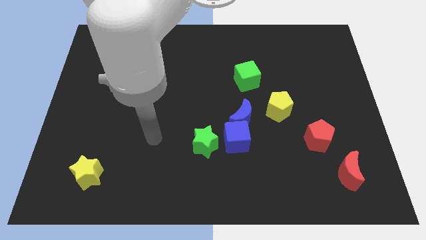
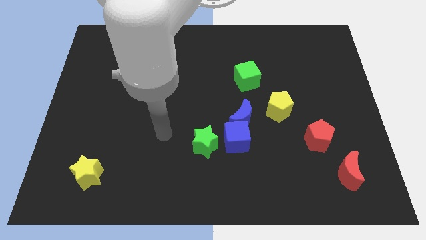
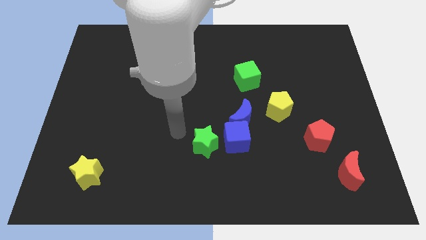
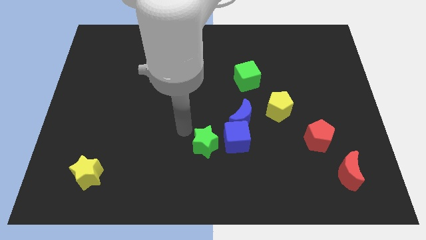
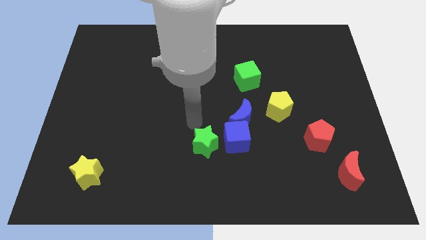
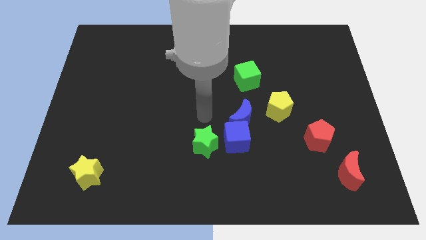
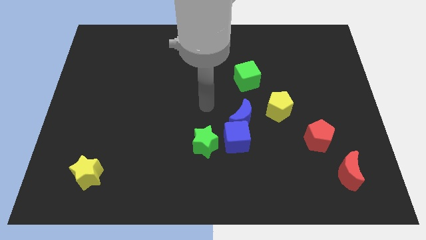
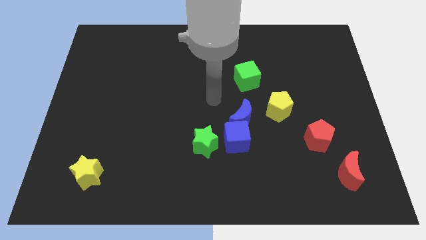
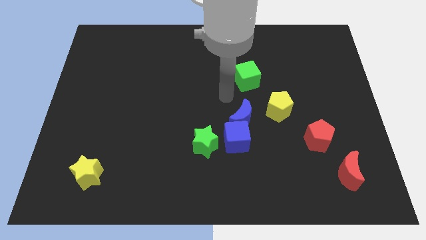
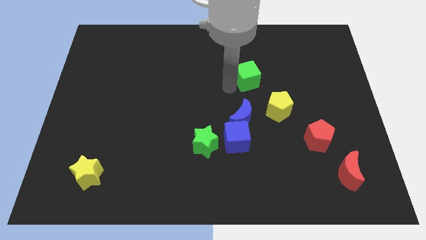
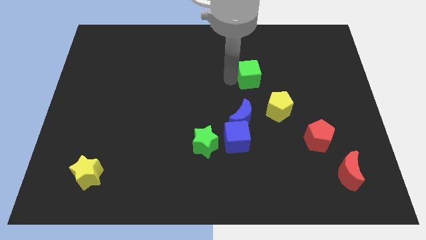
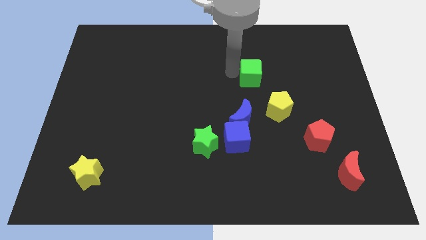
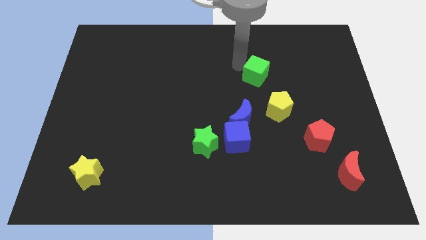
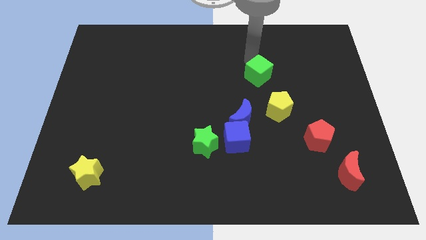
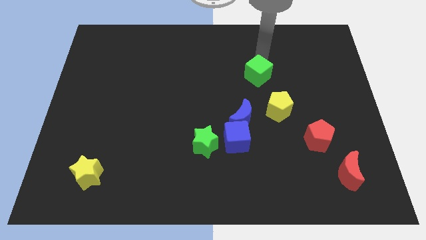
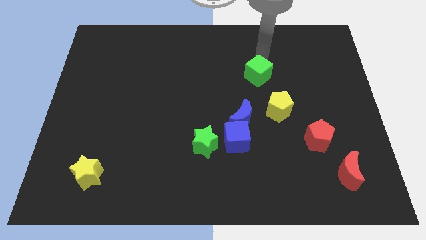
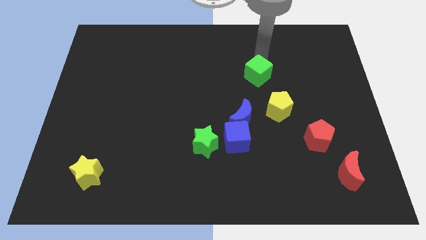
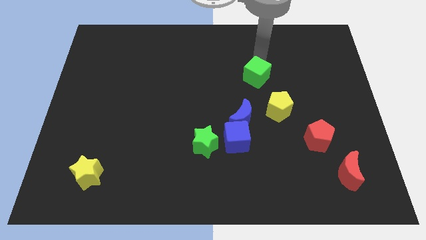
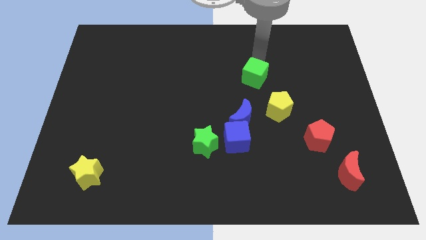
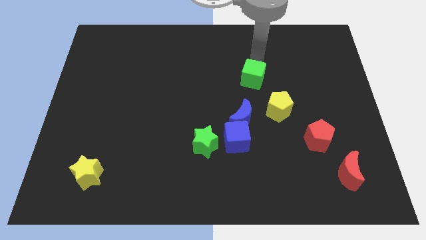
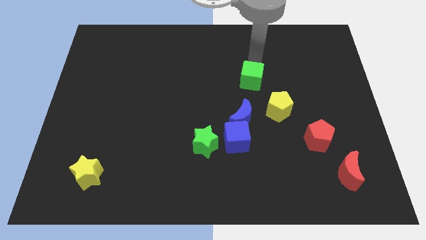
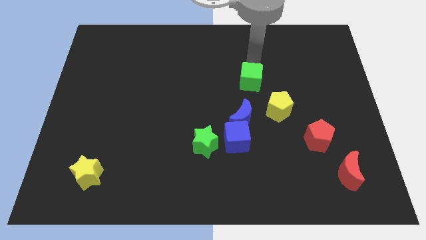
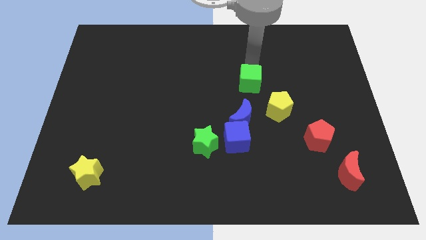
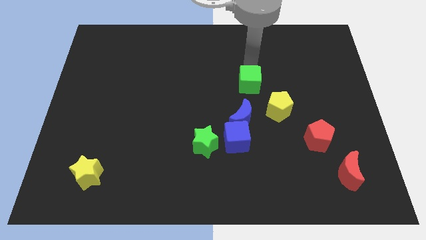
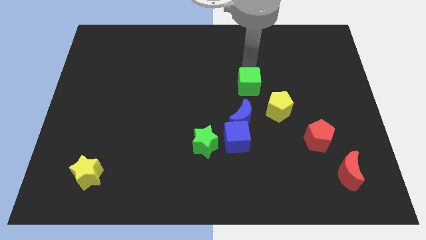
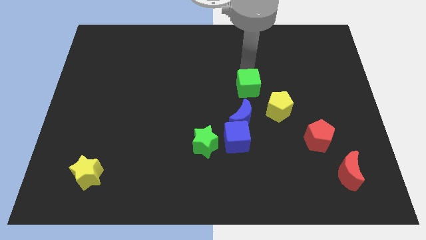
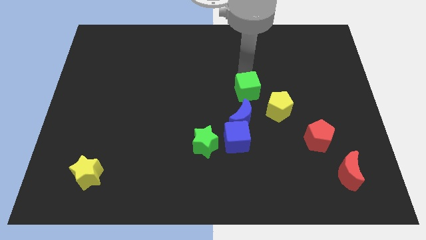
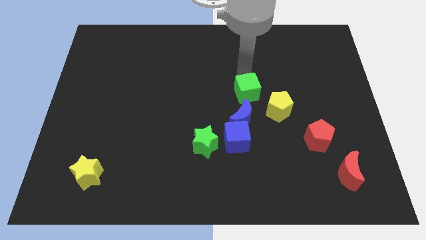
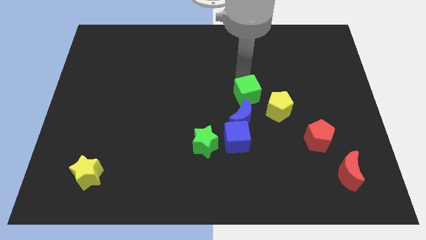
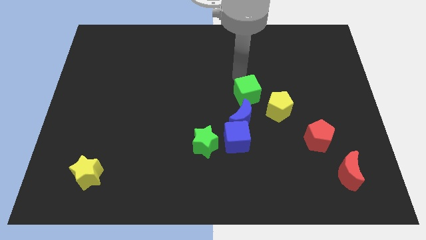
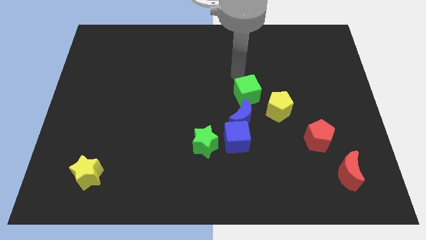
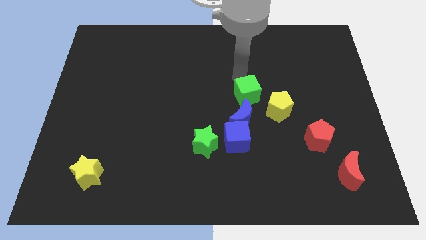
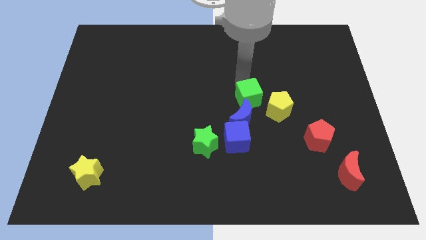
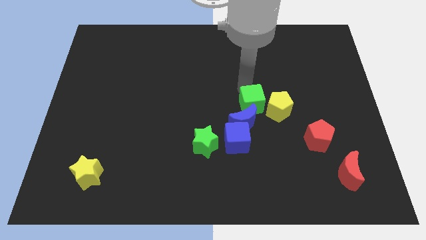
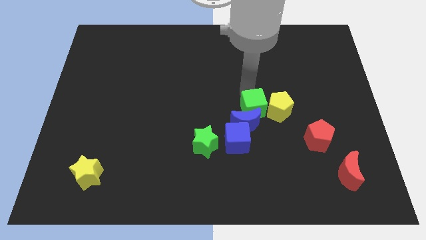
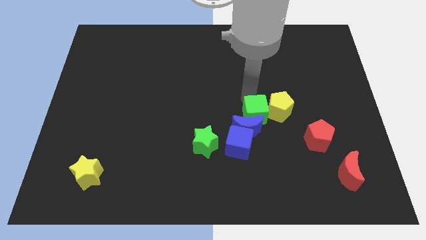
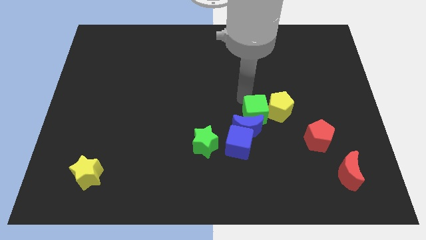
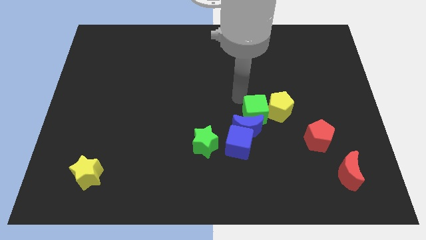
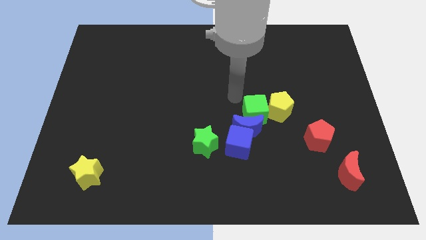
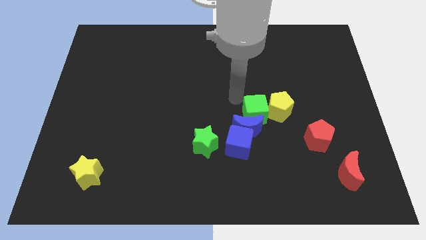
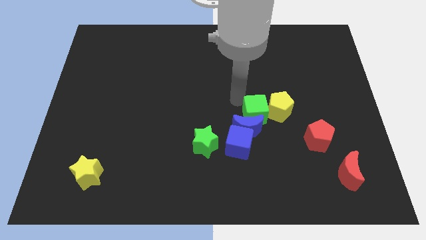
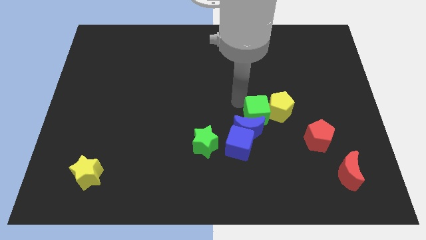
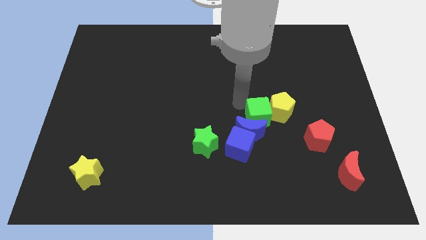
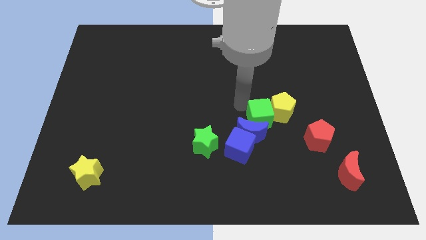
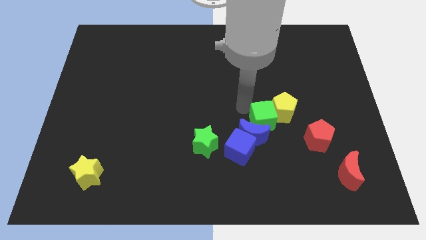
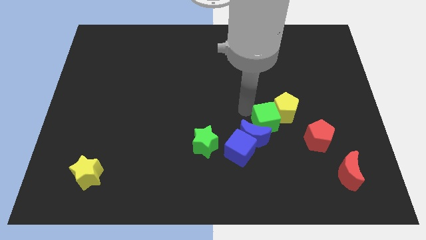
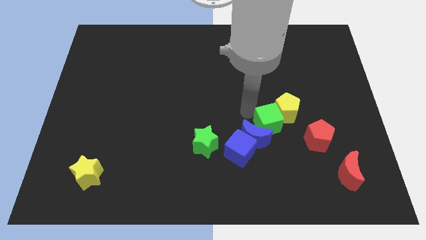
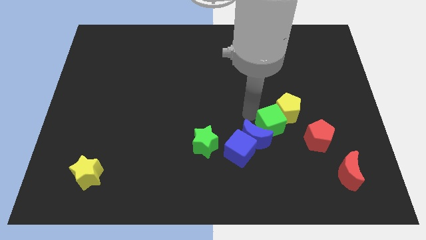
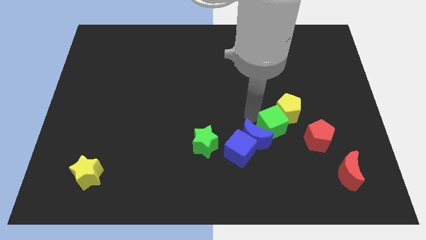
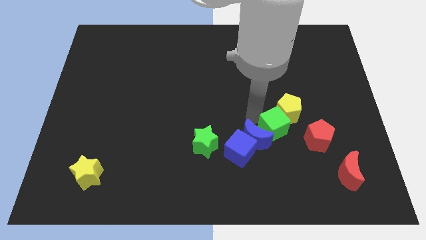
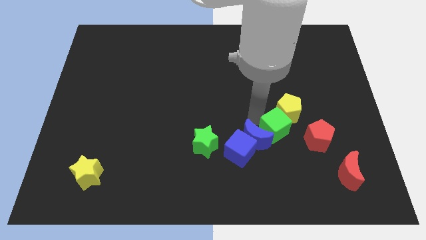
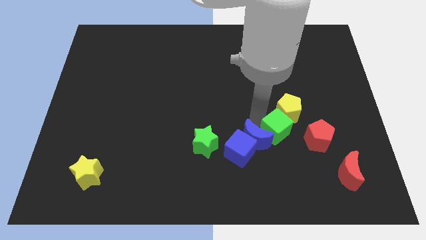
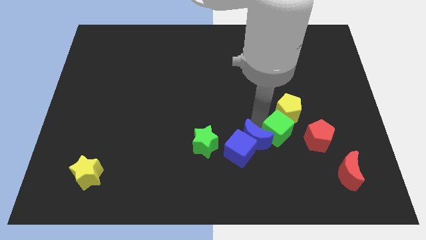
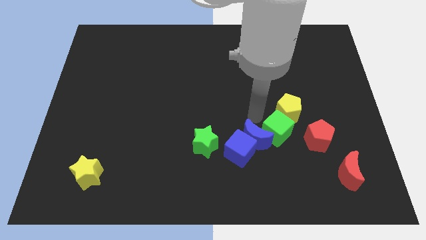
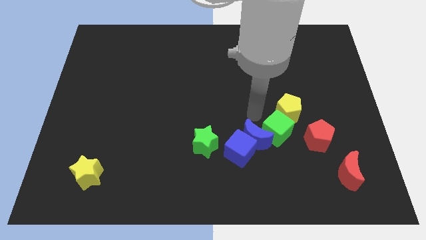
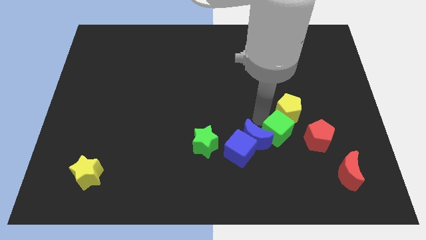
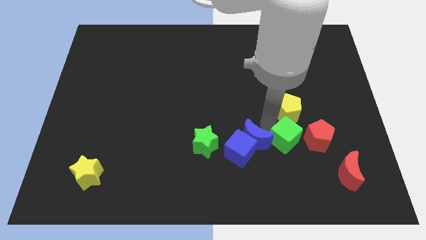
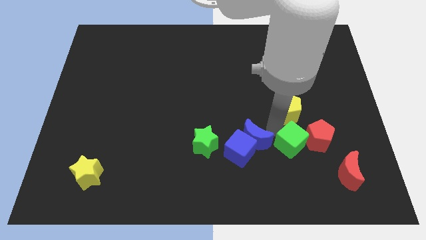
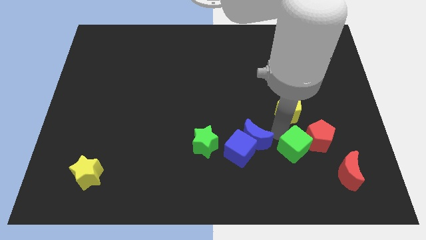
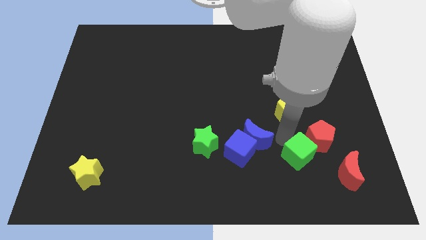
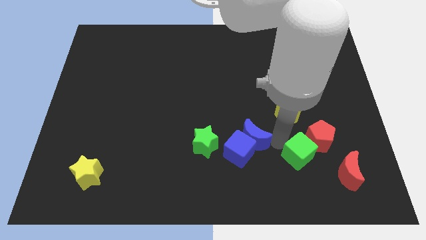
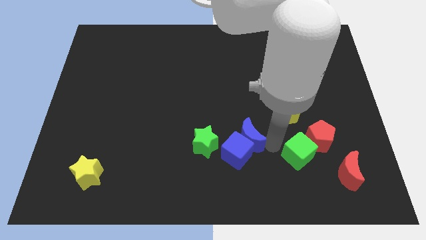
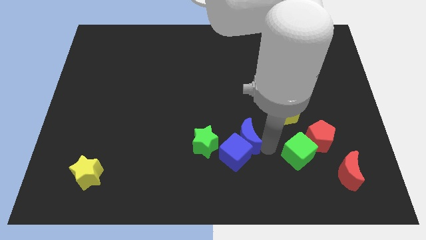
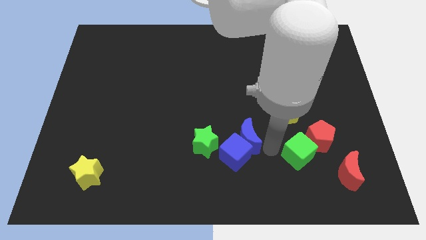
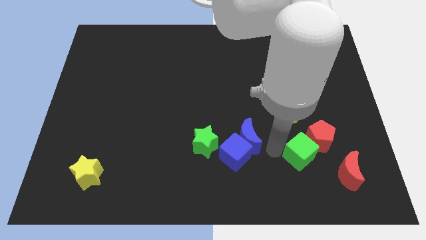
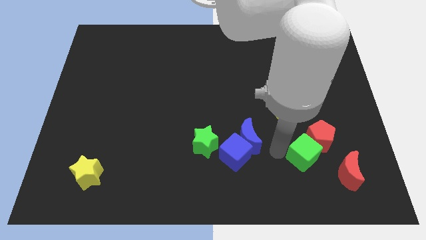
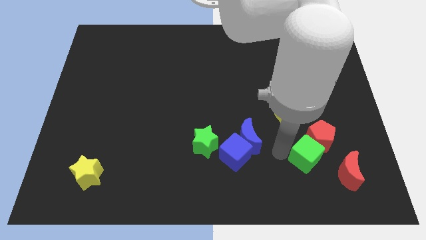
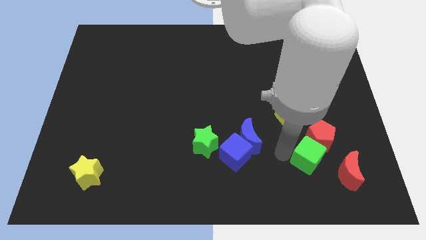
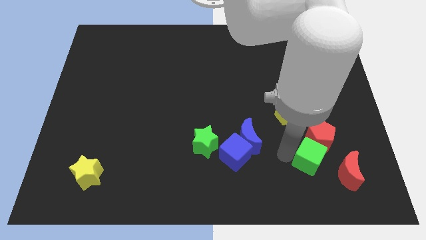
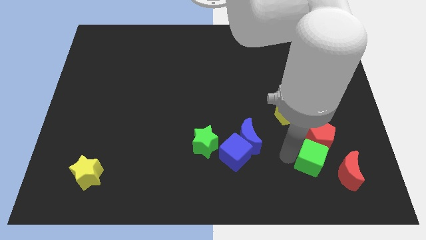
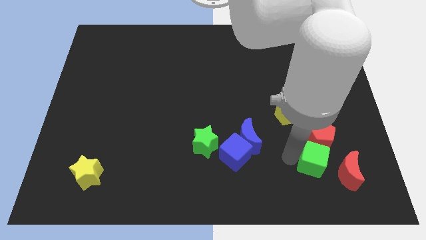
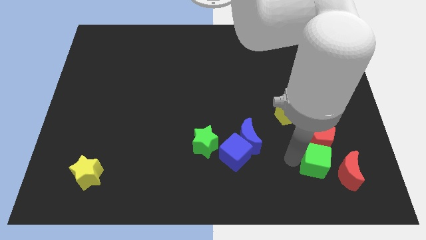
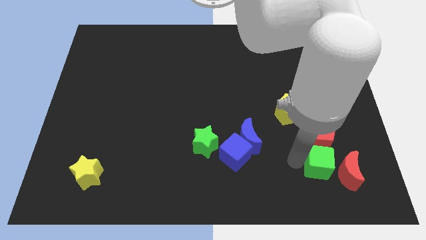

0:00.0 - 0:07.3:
slide the green cube close to the red moon
